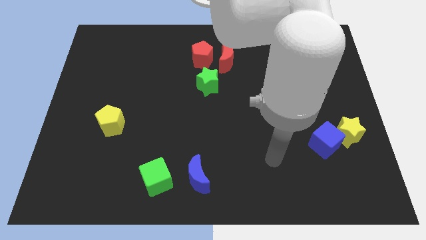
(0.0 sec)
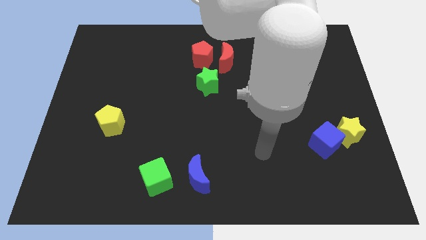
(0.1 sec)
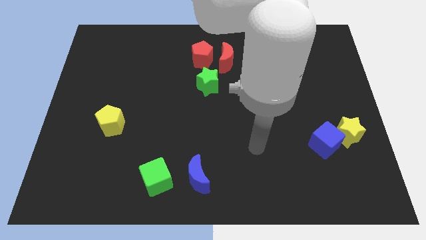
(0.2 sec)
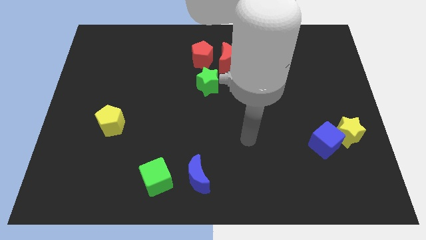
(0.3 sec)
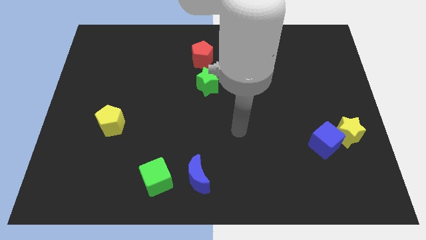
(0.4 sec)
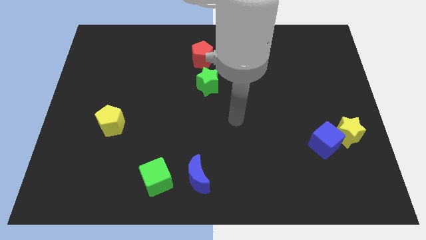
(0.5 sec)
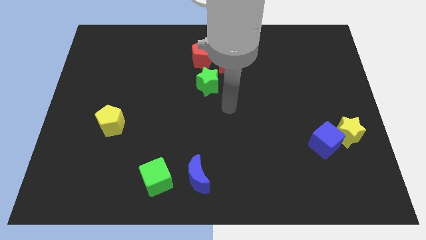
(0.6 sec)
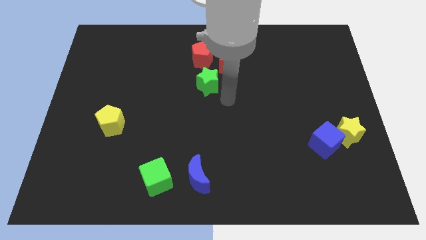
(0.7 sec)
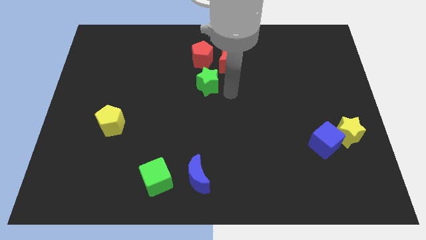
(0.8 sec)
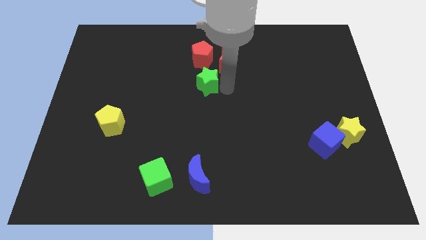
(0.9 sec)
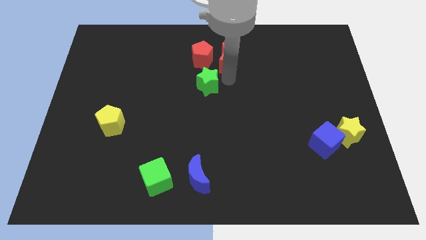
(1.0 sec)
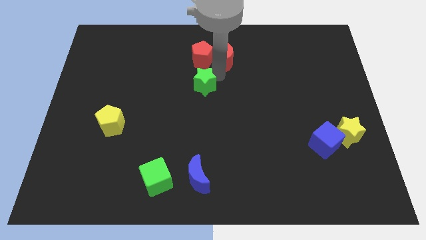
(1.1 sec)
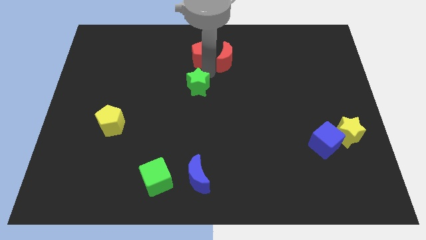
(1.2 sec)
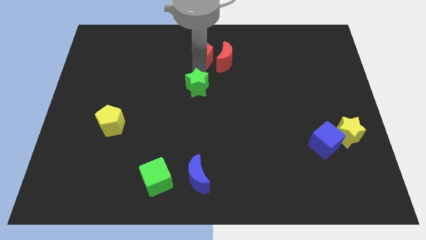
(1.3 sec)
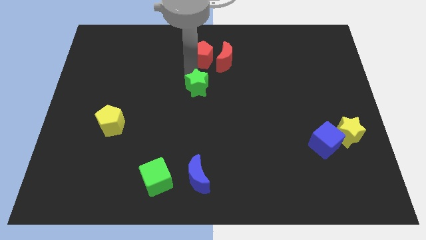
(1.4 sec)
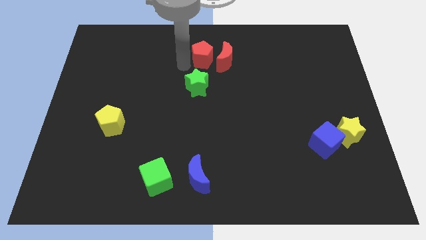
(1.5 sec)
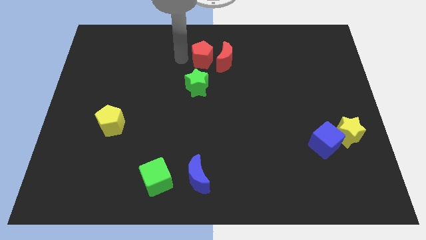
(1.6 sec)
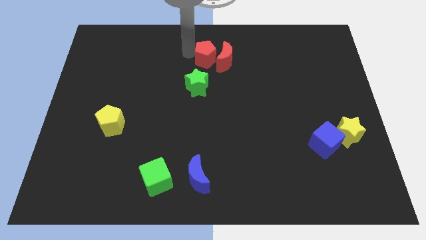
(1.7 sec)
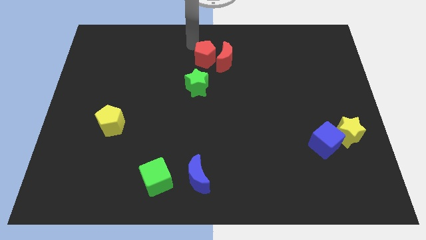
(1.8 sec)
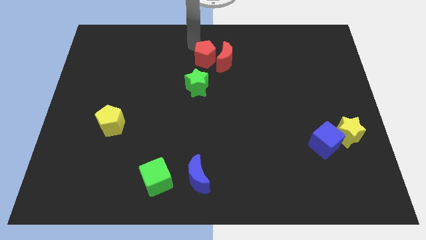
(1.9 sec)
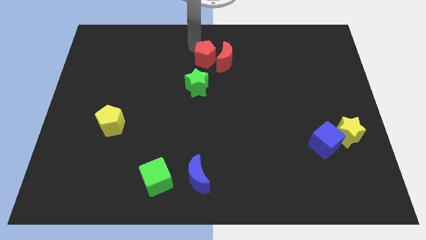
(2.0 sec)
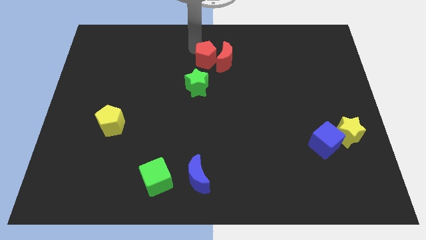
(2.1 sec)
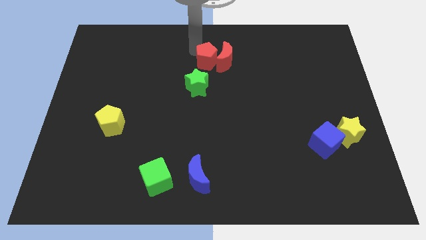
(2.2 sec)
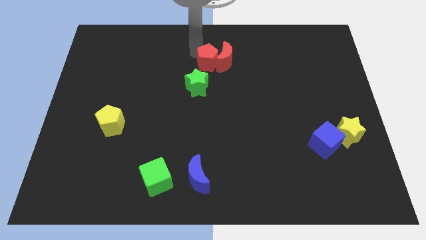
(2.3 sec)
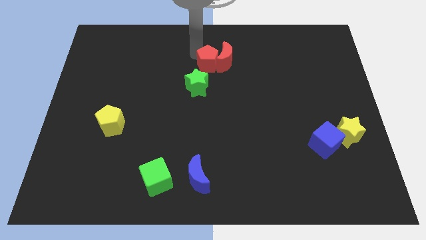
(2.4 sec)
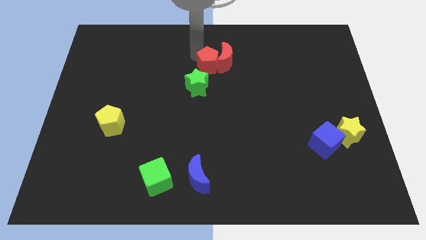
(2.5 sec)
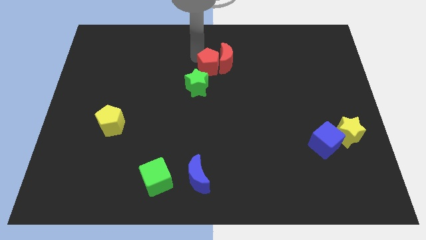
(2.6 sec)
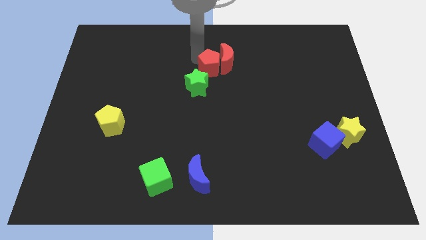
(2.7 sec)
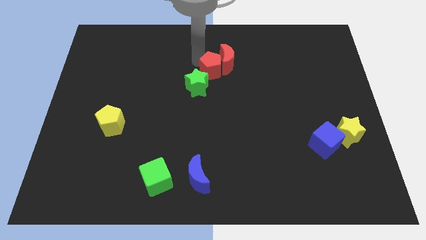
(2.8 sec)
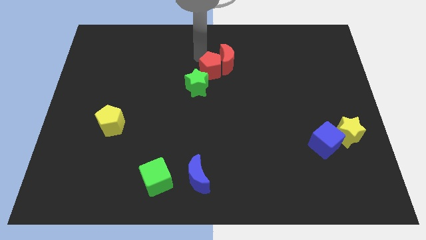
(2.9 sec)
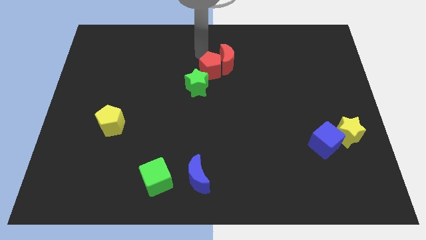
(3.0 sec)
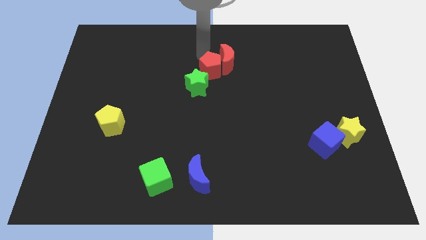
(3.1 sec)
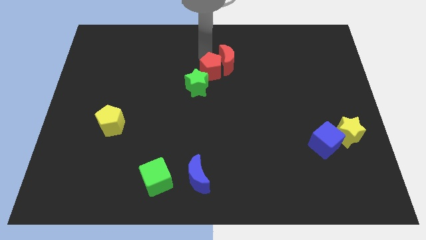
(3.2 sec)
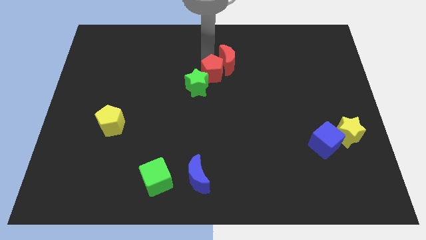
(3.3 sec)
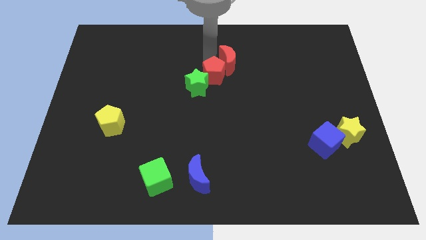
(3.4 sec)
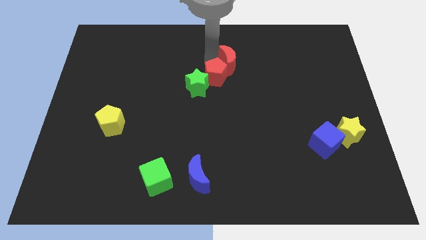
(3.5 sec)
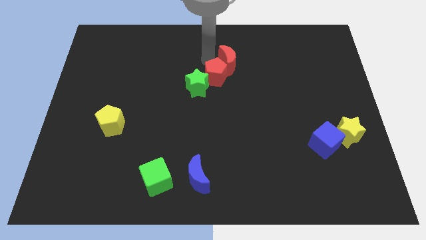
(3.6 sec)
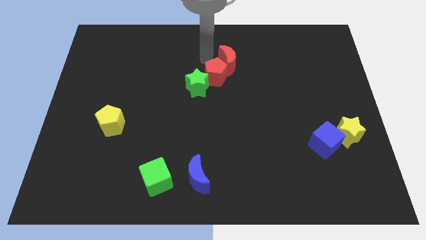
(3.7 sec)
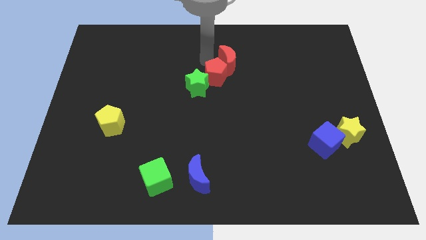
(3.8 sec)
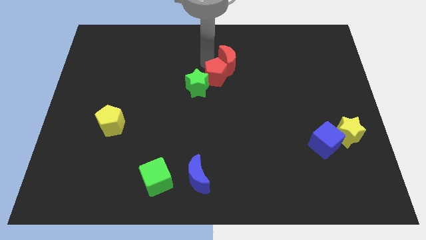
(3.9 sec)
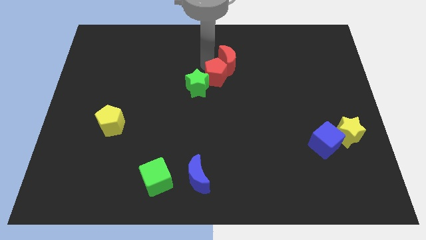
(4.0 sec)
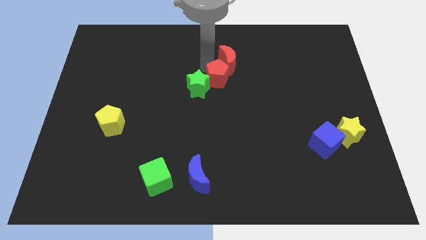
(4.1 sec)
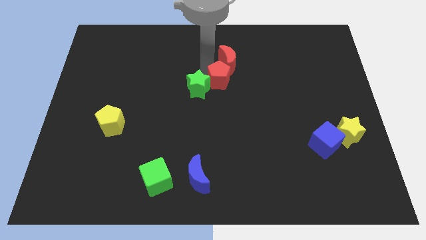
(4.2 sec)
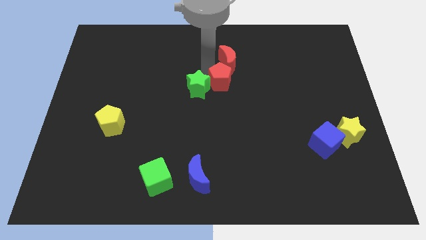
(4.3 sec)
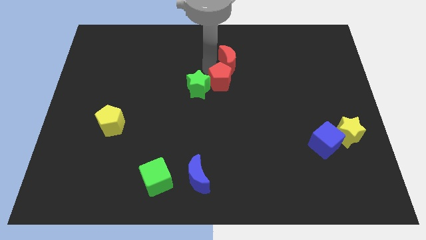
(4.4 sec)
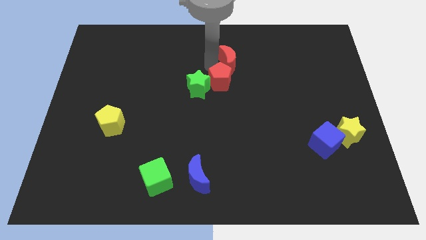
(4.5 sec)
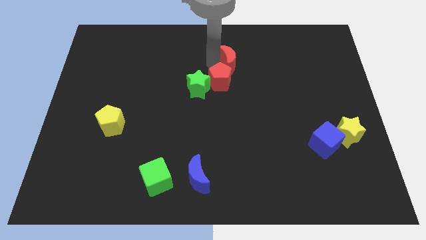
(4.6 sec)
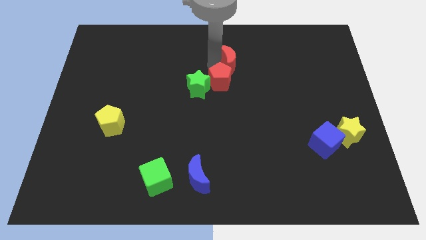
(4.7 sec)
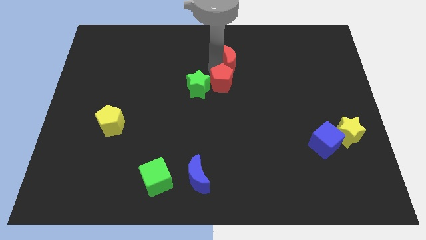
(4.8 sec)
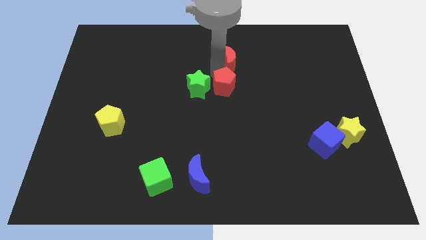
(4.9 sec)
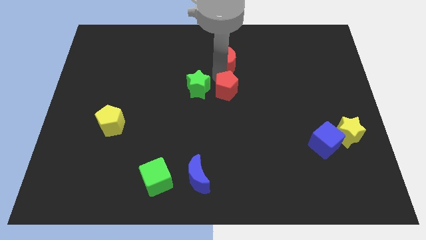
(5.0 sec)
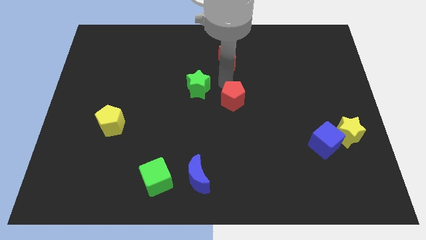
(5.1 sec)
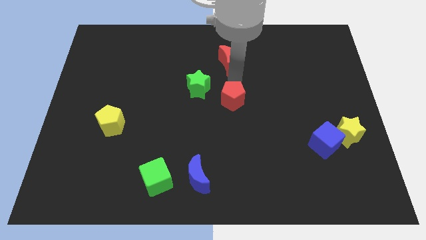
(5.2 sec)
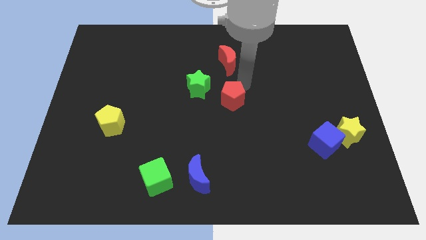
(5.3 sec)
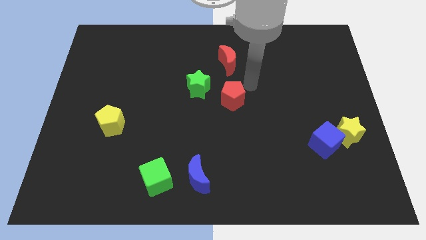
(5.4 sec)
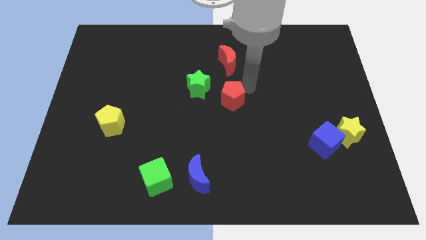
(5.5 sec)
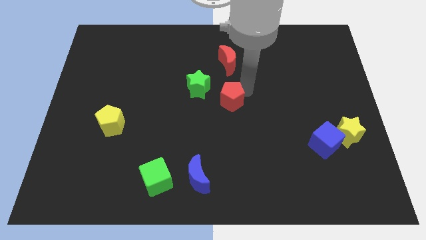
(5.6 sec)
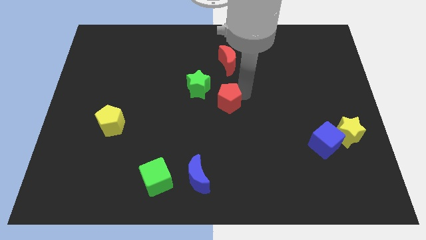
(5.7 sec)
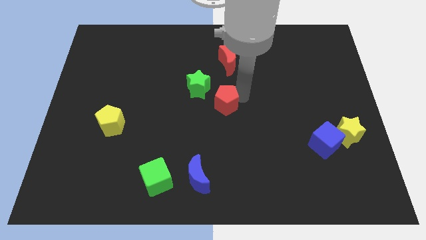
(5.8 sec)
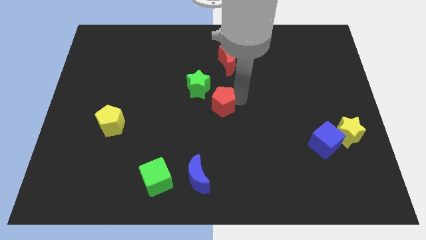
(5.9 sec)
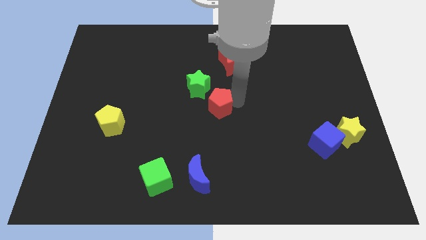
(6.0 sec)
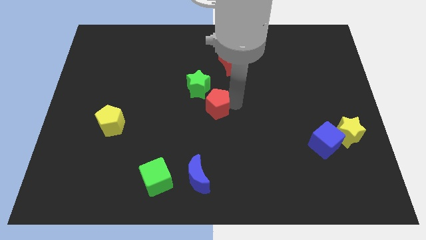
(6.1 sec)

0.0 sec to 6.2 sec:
push the red pentagon below the green star

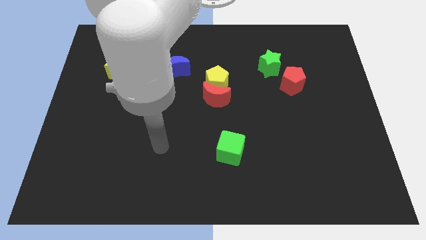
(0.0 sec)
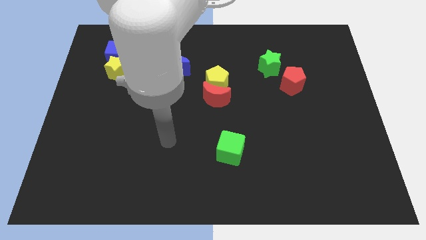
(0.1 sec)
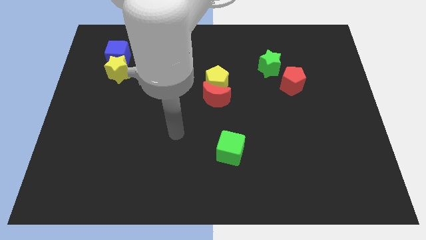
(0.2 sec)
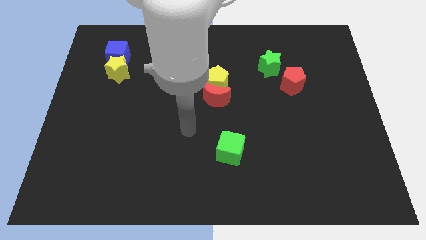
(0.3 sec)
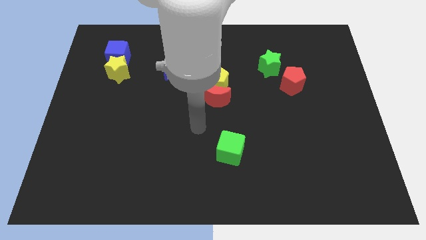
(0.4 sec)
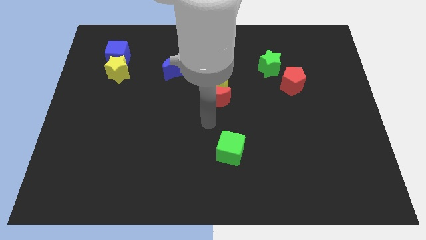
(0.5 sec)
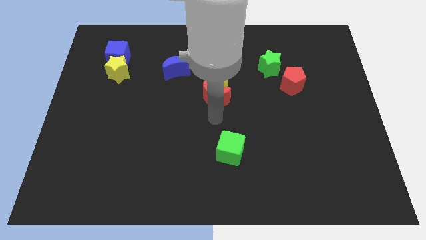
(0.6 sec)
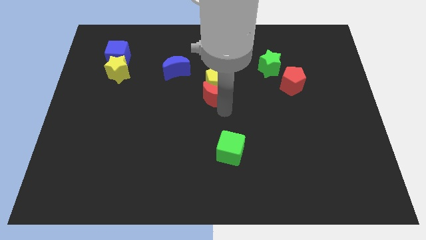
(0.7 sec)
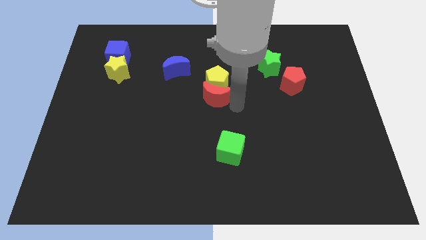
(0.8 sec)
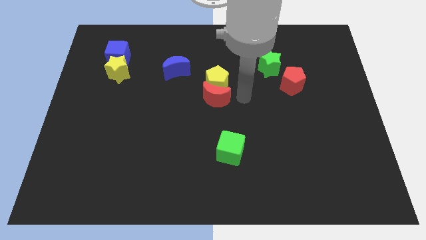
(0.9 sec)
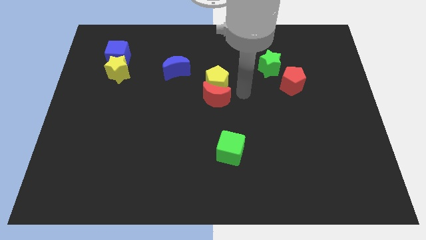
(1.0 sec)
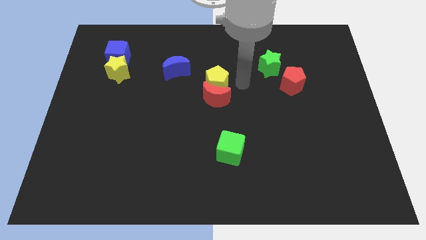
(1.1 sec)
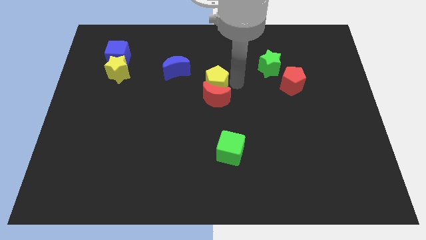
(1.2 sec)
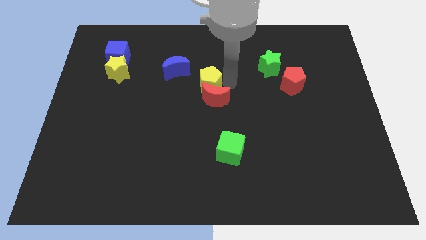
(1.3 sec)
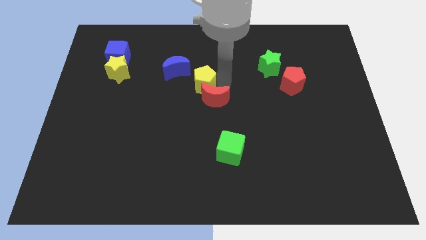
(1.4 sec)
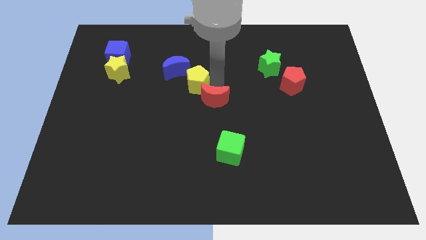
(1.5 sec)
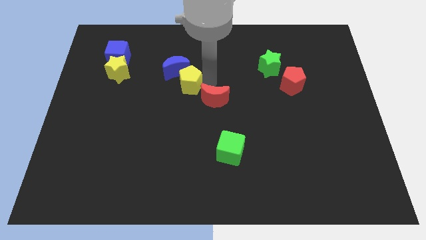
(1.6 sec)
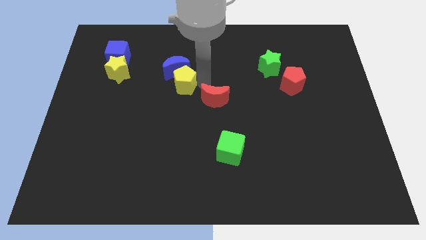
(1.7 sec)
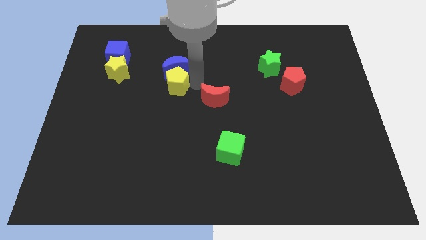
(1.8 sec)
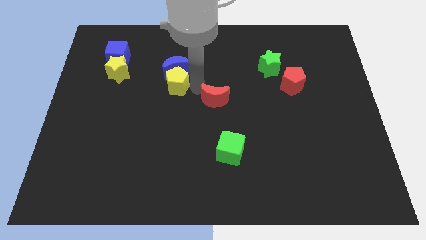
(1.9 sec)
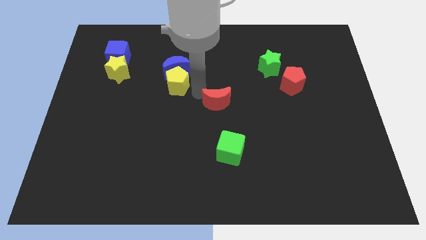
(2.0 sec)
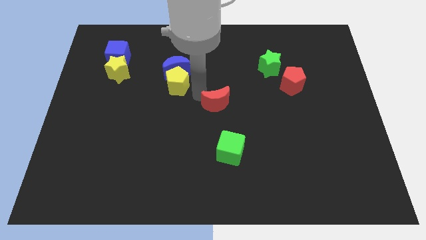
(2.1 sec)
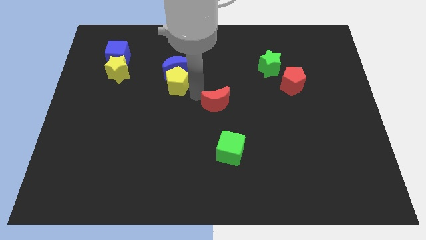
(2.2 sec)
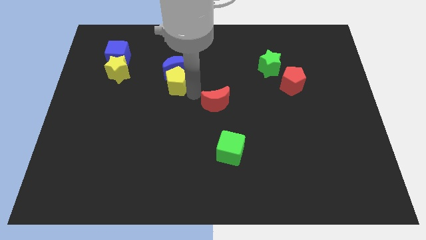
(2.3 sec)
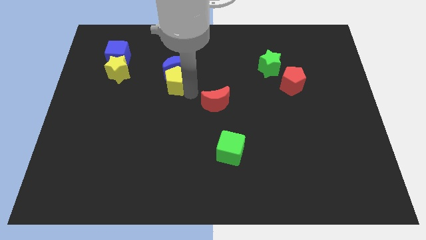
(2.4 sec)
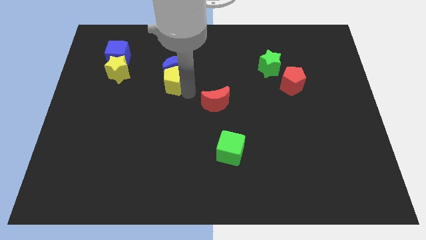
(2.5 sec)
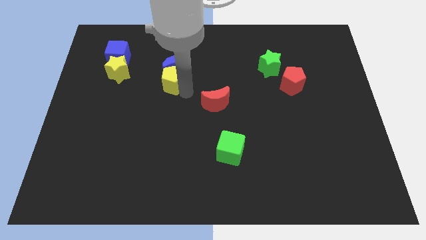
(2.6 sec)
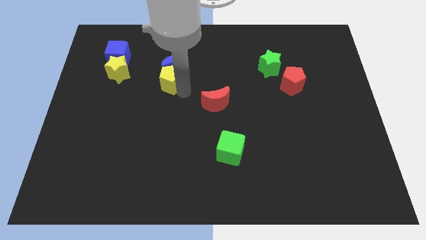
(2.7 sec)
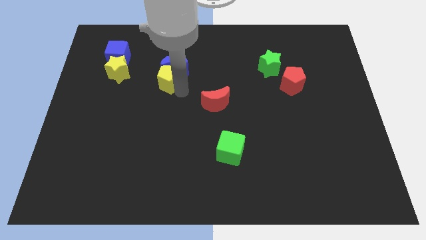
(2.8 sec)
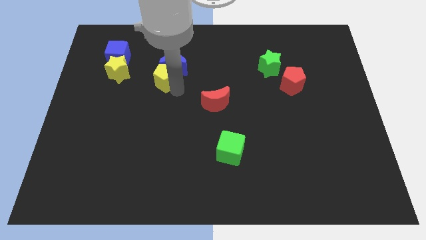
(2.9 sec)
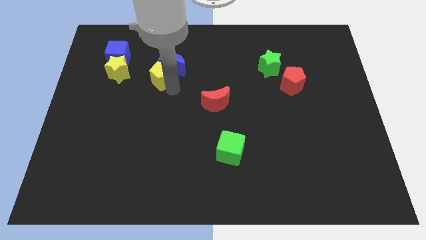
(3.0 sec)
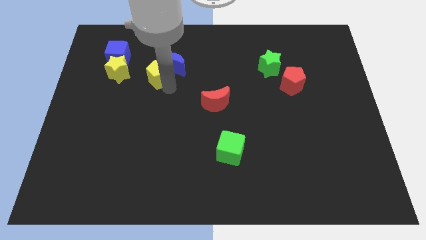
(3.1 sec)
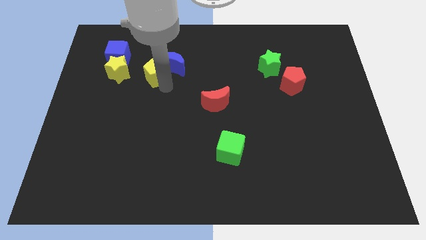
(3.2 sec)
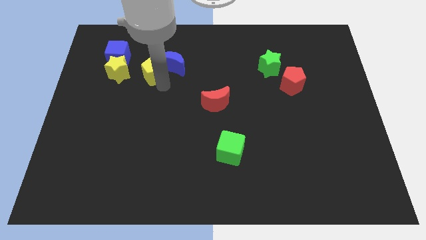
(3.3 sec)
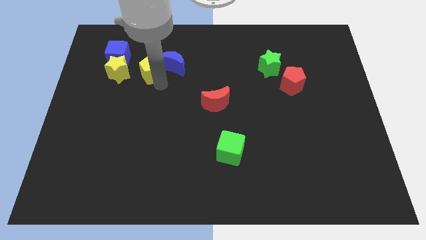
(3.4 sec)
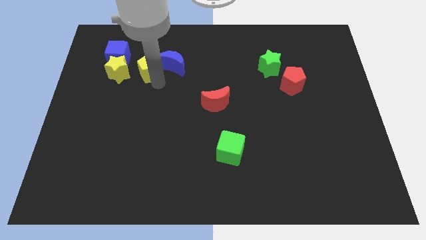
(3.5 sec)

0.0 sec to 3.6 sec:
slide the yellow pentagon diagonally up and to the right of the yellow star
